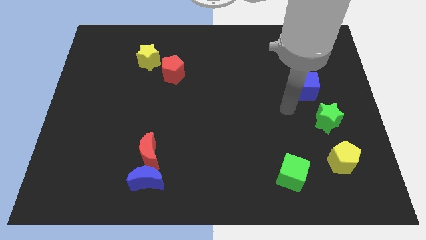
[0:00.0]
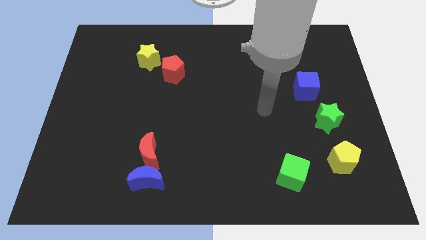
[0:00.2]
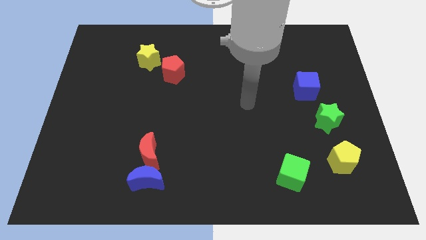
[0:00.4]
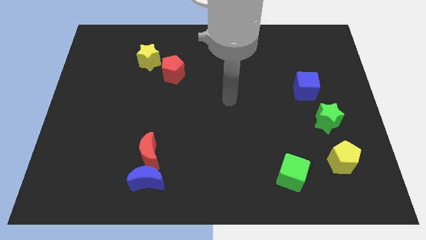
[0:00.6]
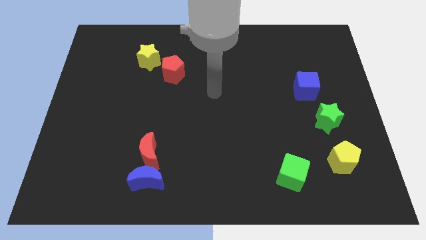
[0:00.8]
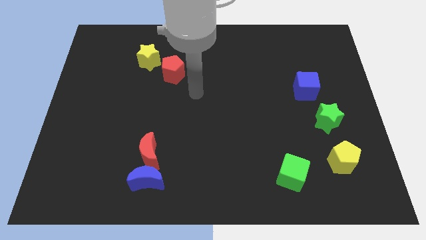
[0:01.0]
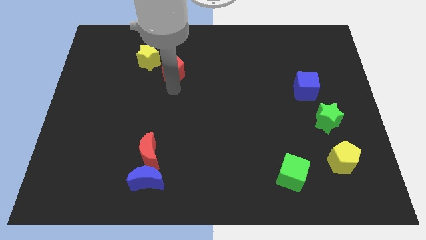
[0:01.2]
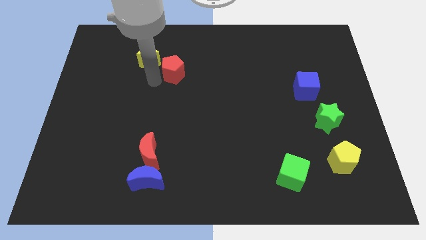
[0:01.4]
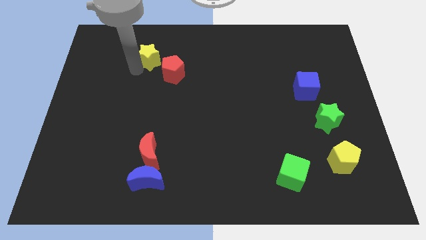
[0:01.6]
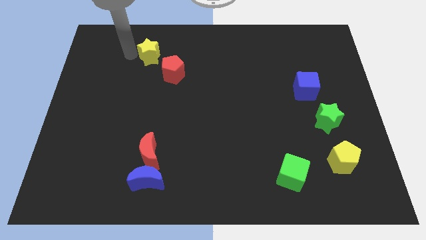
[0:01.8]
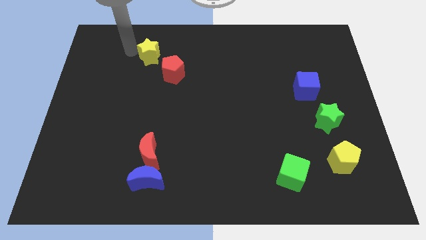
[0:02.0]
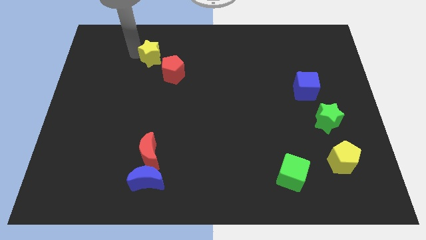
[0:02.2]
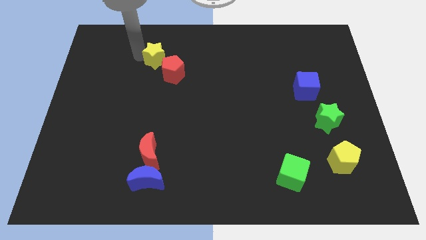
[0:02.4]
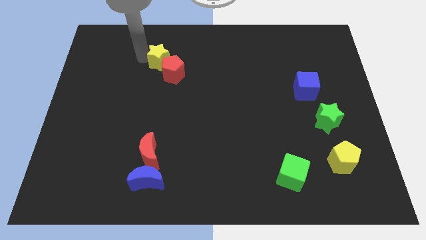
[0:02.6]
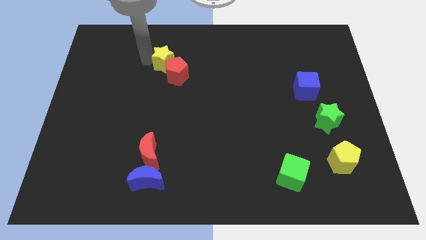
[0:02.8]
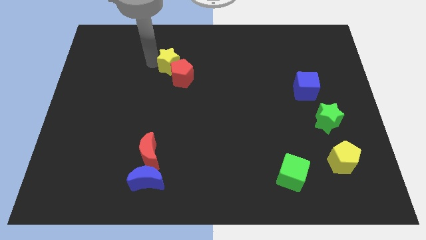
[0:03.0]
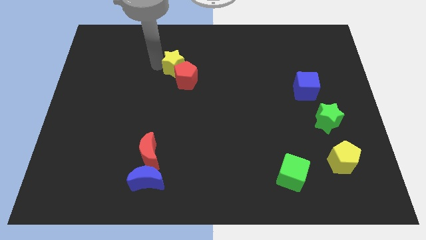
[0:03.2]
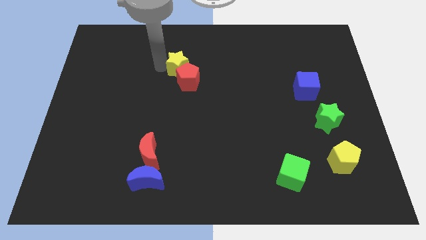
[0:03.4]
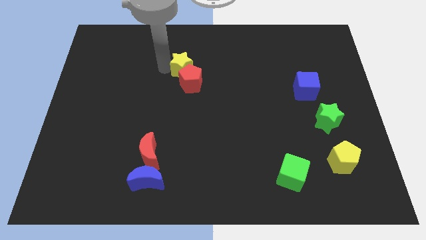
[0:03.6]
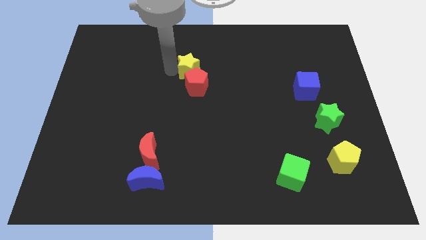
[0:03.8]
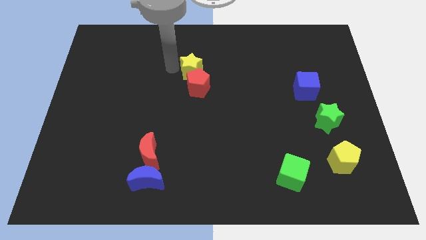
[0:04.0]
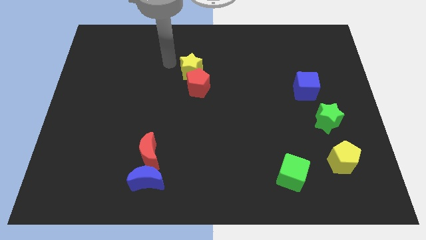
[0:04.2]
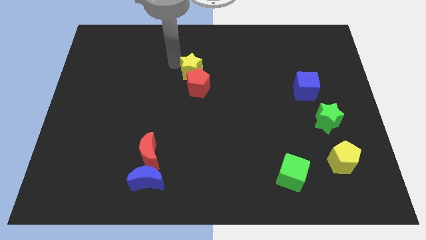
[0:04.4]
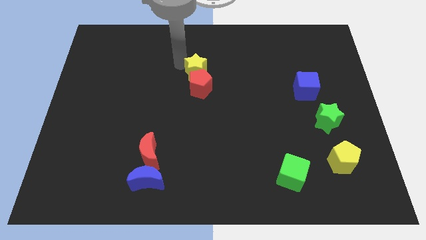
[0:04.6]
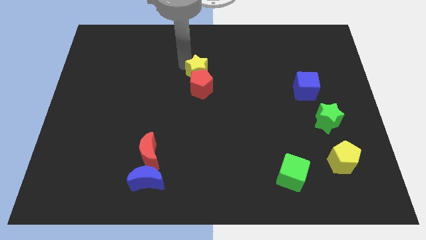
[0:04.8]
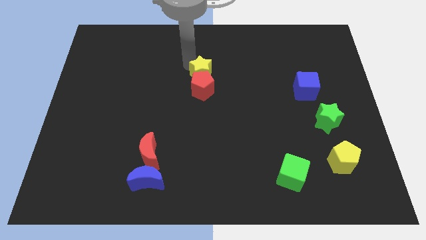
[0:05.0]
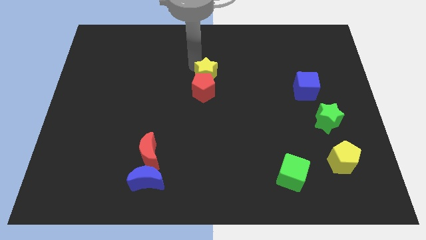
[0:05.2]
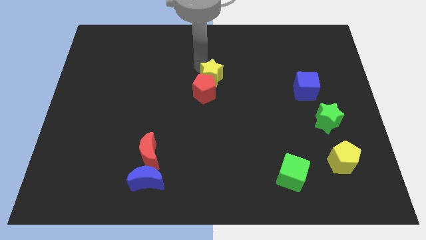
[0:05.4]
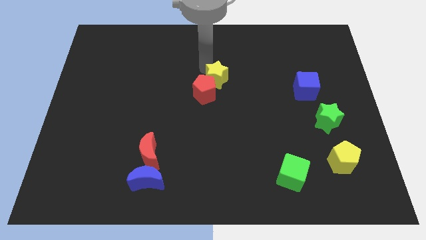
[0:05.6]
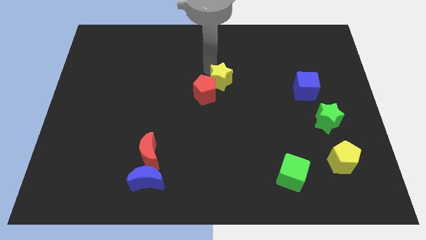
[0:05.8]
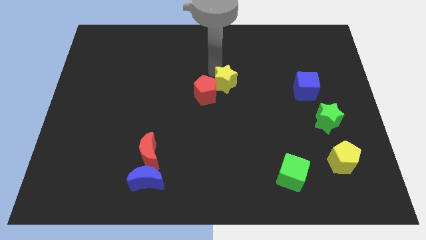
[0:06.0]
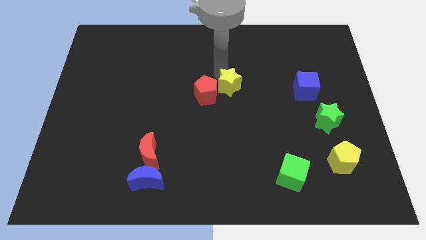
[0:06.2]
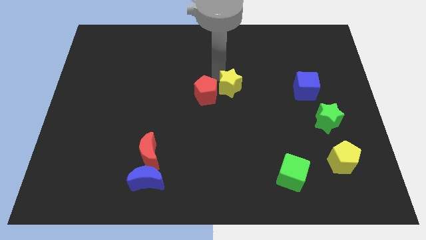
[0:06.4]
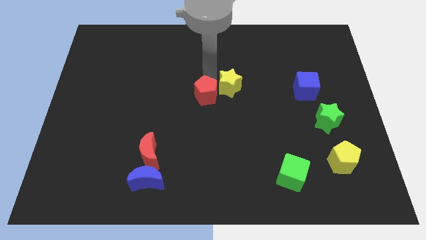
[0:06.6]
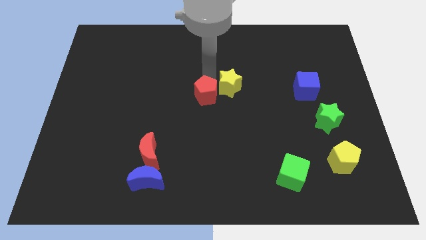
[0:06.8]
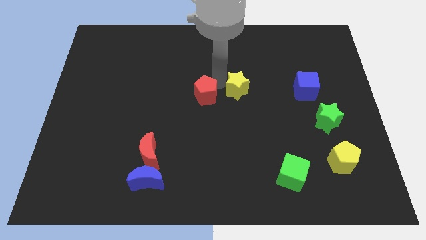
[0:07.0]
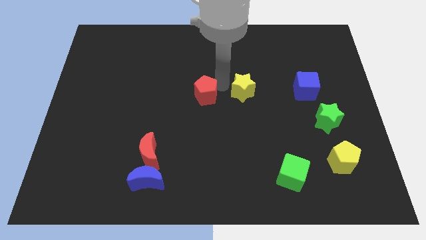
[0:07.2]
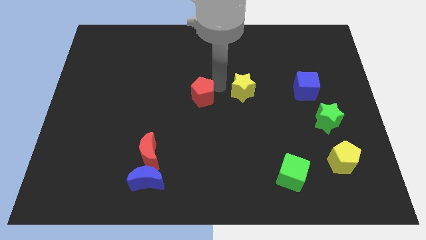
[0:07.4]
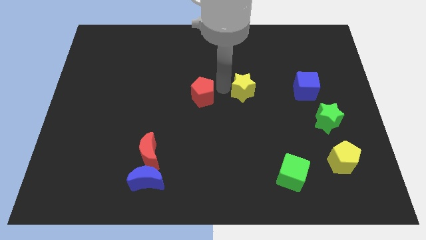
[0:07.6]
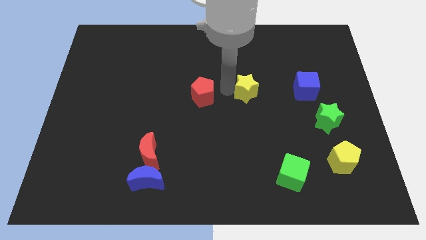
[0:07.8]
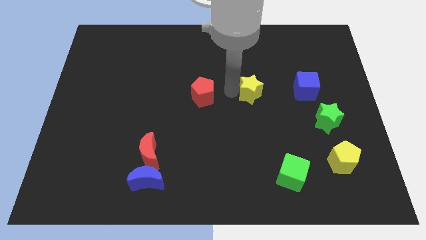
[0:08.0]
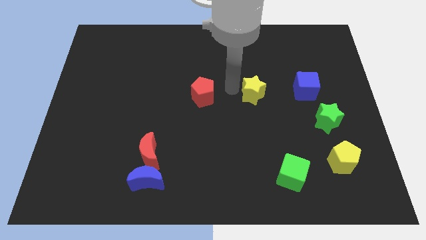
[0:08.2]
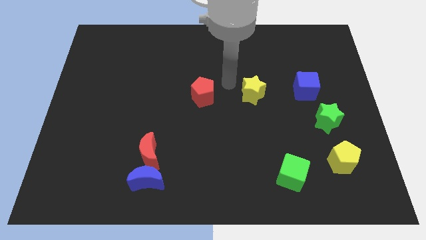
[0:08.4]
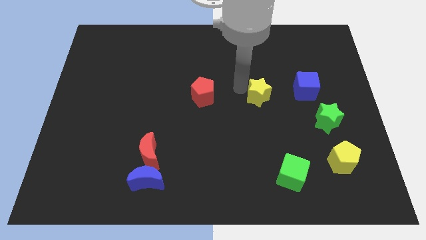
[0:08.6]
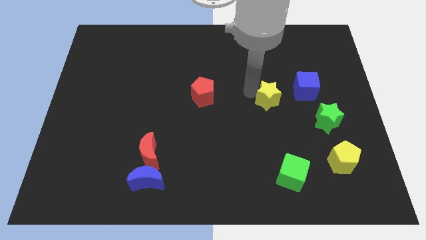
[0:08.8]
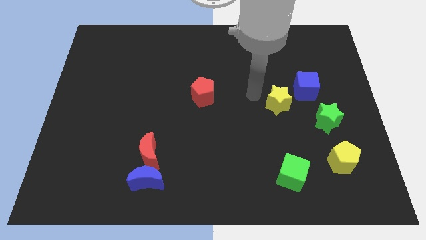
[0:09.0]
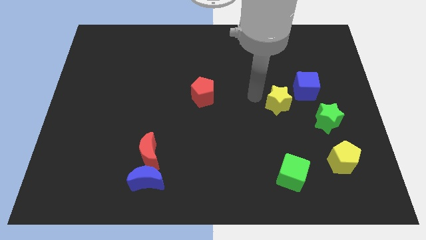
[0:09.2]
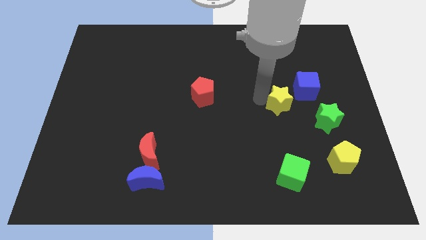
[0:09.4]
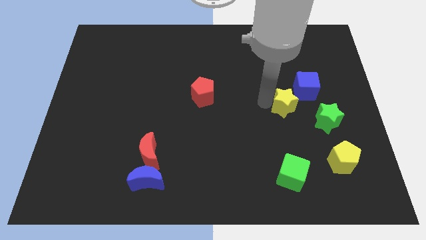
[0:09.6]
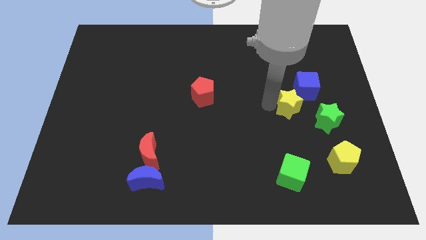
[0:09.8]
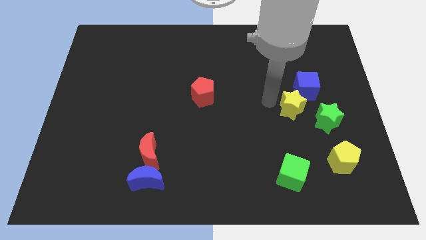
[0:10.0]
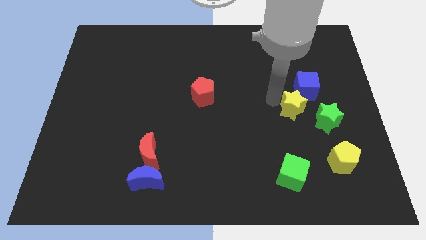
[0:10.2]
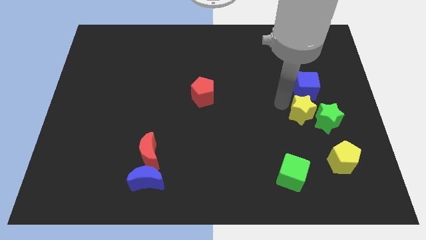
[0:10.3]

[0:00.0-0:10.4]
move the yellow star towards the green star

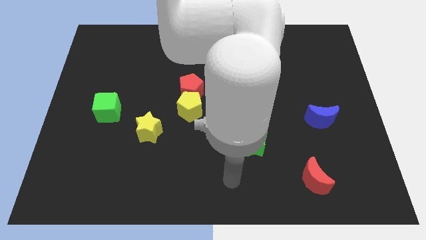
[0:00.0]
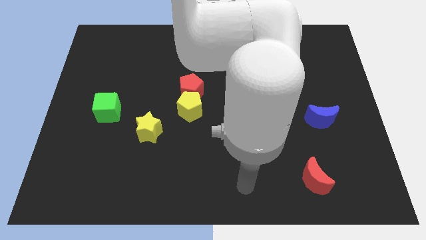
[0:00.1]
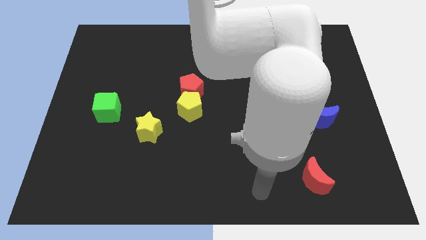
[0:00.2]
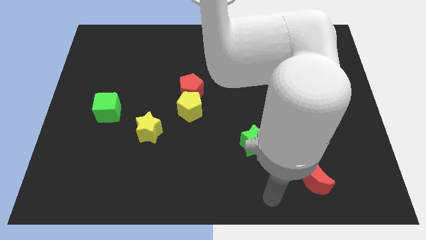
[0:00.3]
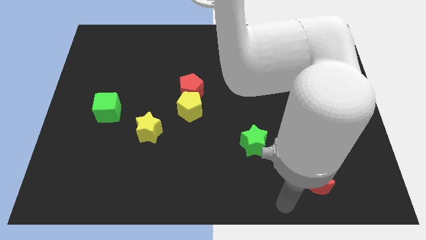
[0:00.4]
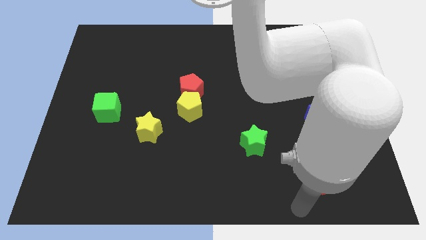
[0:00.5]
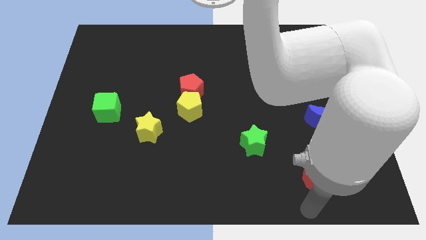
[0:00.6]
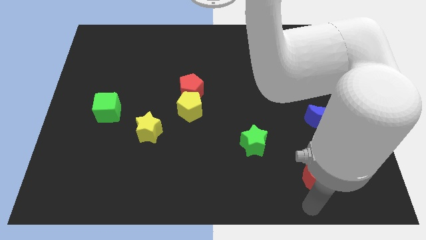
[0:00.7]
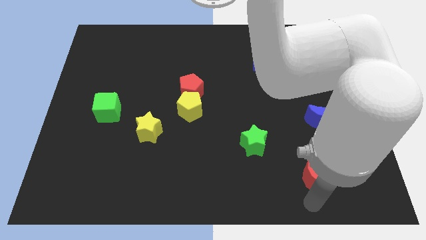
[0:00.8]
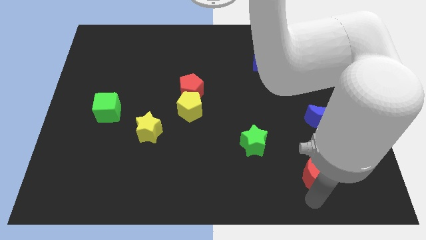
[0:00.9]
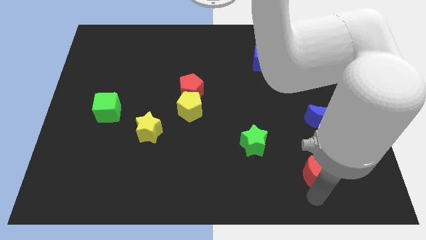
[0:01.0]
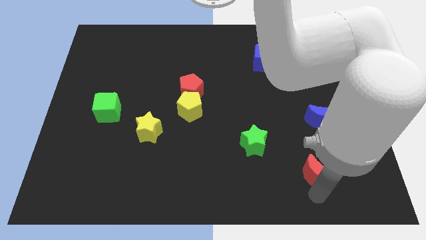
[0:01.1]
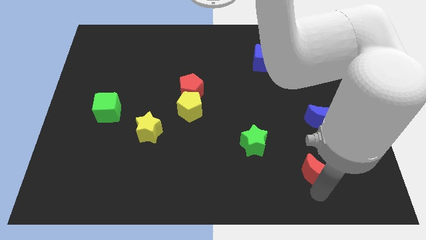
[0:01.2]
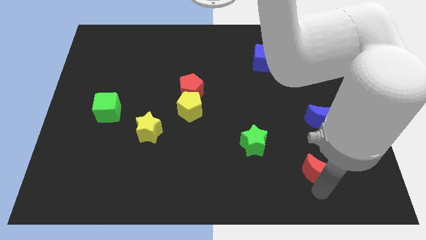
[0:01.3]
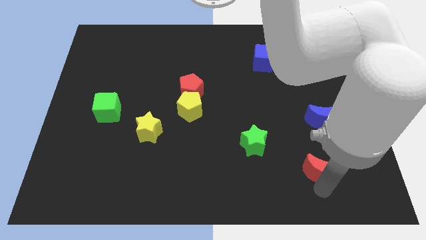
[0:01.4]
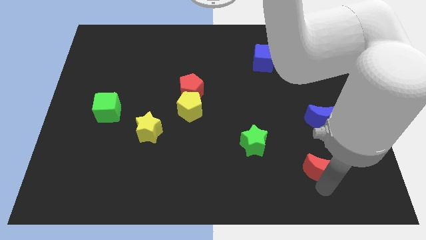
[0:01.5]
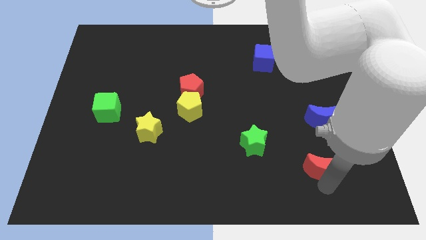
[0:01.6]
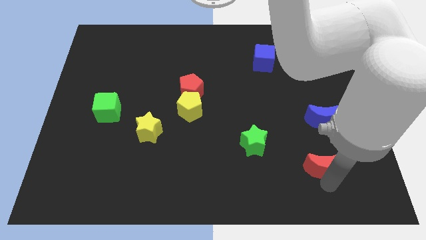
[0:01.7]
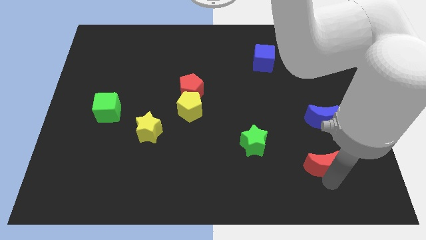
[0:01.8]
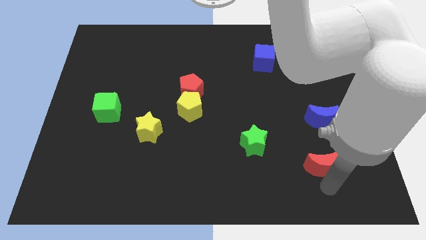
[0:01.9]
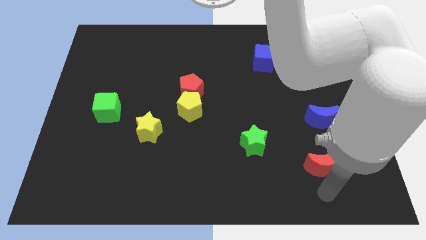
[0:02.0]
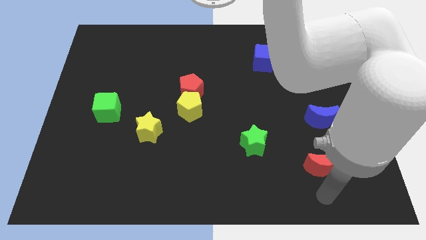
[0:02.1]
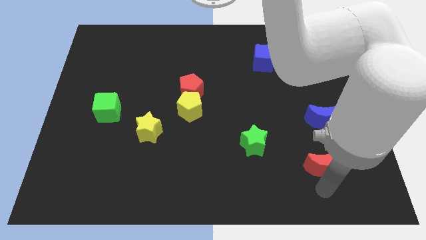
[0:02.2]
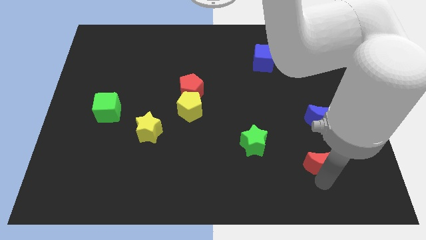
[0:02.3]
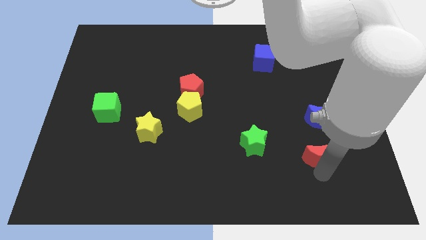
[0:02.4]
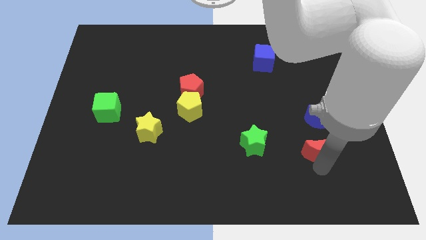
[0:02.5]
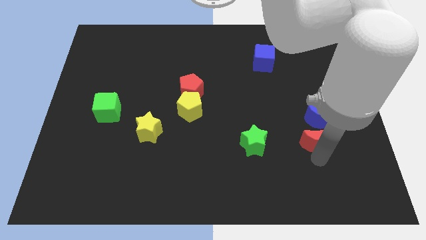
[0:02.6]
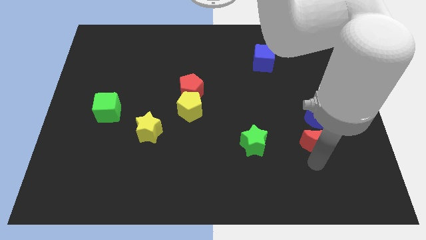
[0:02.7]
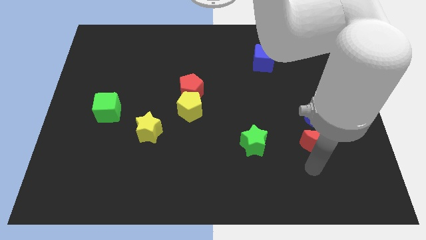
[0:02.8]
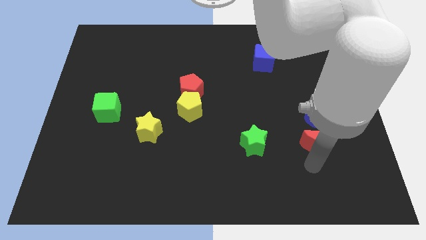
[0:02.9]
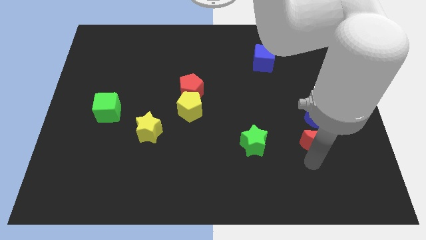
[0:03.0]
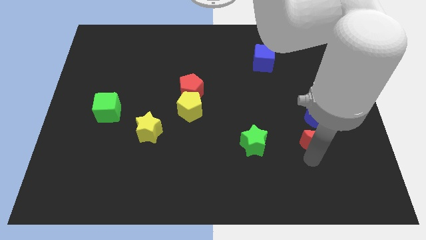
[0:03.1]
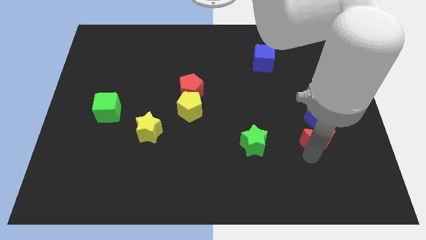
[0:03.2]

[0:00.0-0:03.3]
push the red moon towards the blue moon
